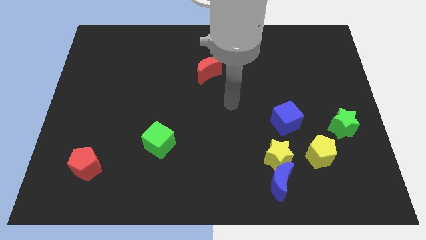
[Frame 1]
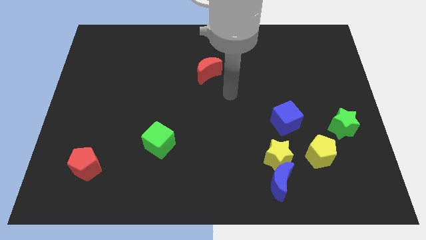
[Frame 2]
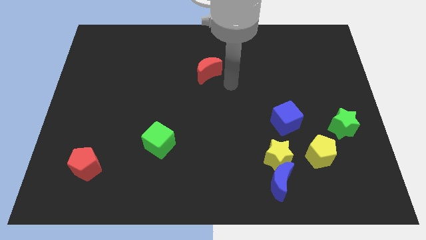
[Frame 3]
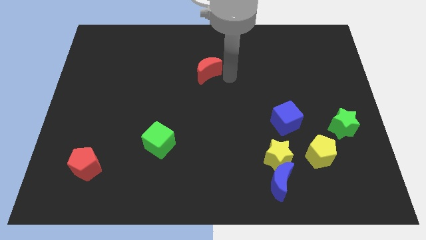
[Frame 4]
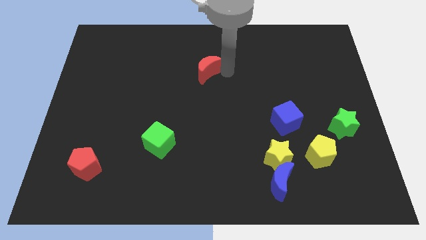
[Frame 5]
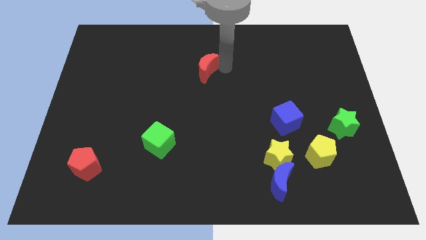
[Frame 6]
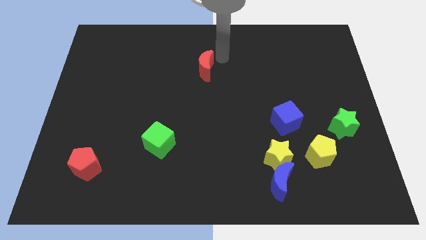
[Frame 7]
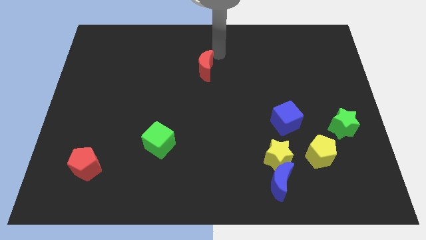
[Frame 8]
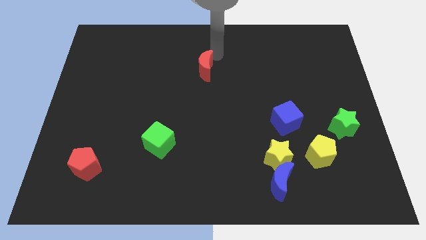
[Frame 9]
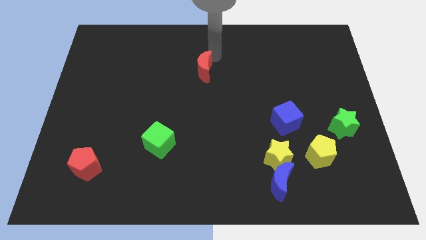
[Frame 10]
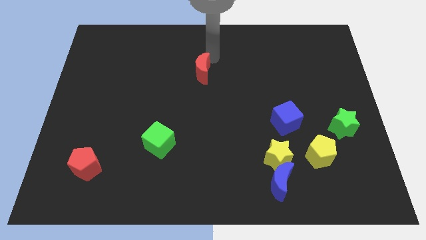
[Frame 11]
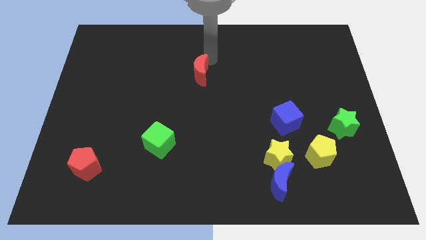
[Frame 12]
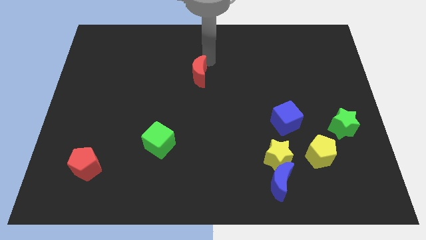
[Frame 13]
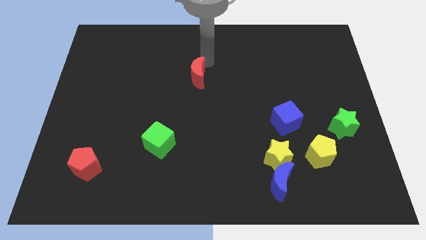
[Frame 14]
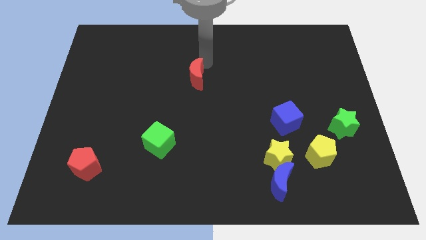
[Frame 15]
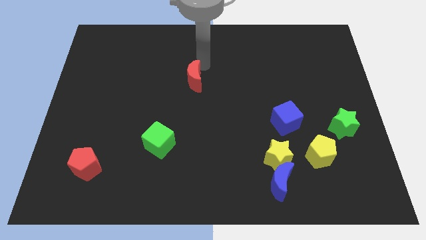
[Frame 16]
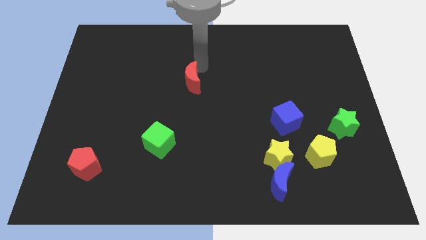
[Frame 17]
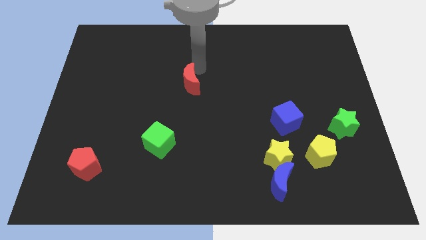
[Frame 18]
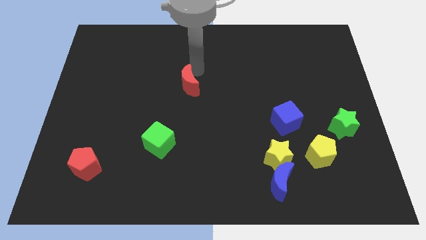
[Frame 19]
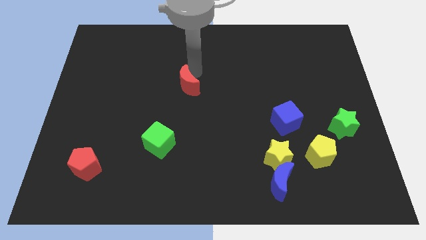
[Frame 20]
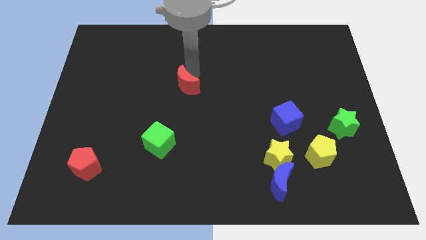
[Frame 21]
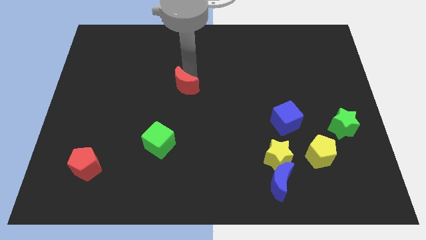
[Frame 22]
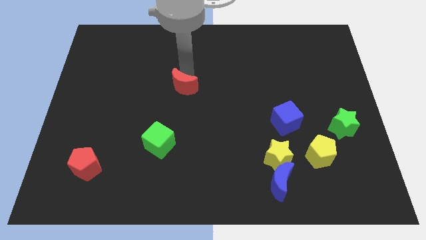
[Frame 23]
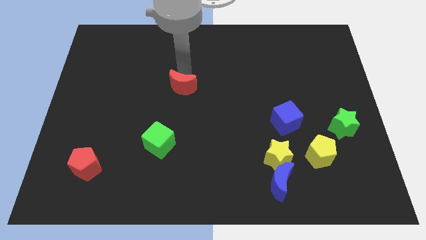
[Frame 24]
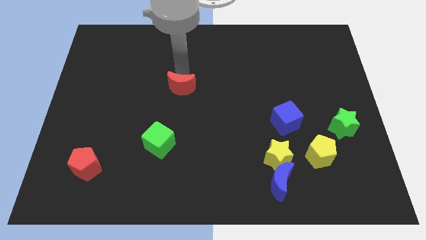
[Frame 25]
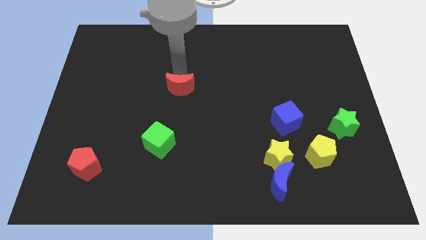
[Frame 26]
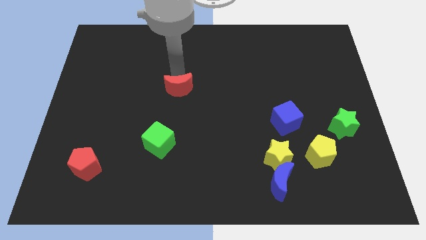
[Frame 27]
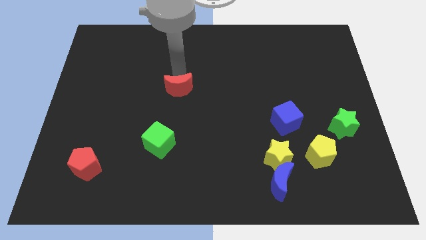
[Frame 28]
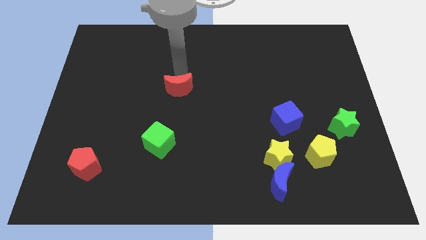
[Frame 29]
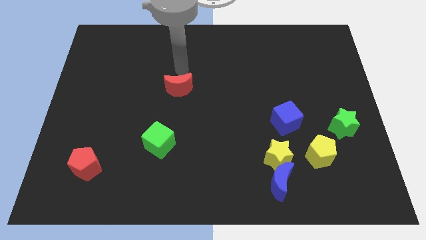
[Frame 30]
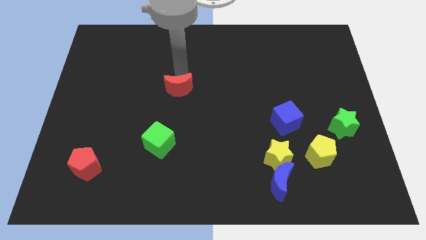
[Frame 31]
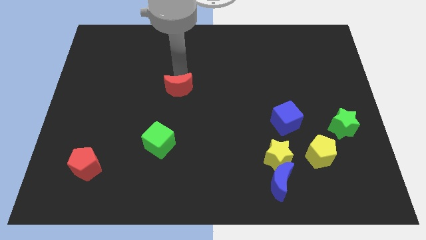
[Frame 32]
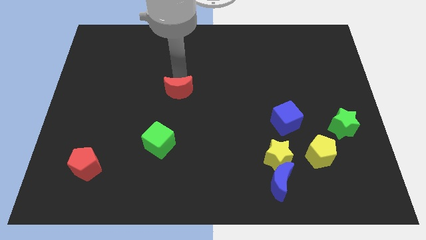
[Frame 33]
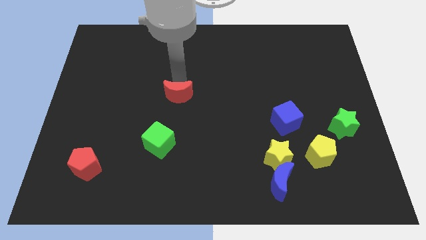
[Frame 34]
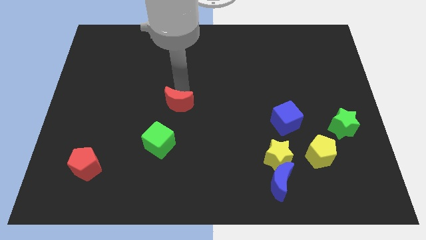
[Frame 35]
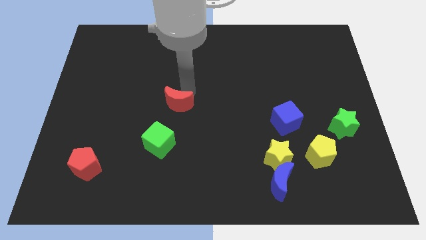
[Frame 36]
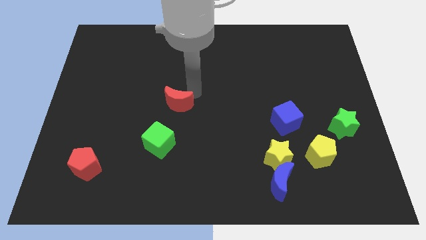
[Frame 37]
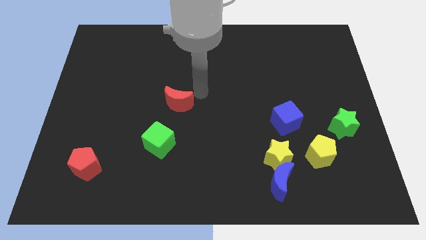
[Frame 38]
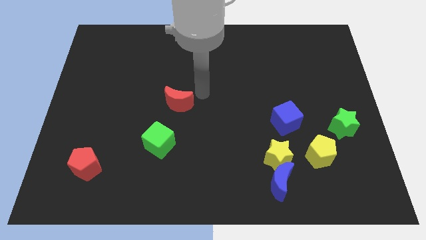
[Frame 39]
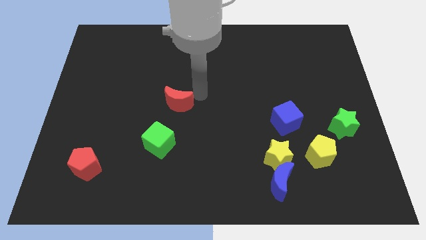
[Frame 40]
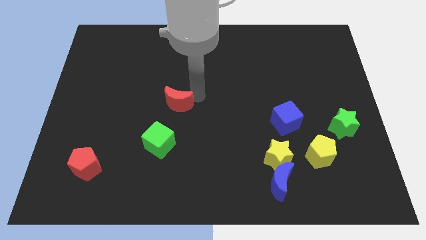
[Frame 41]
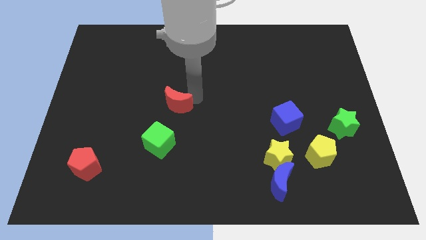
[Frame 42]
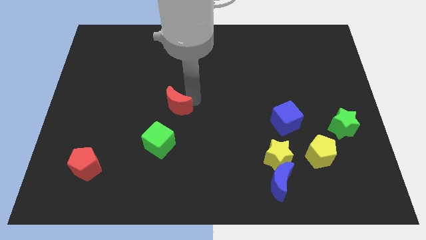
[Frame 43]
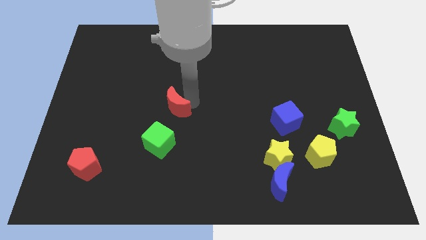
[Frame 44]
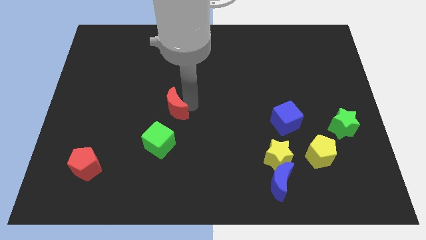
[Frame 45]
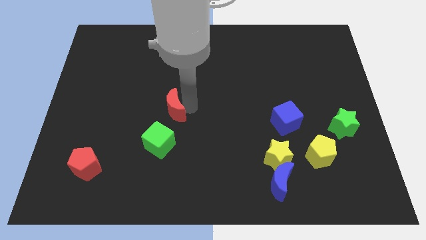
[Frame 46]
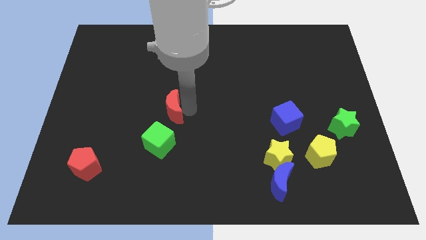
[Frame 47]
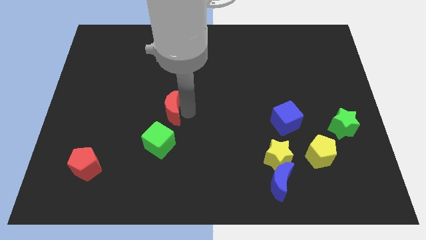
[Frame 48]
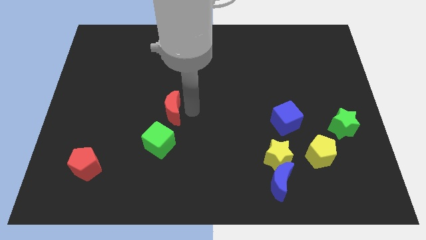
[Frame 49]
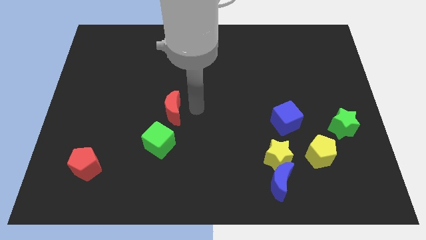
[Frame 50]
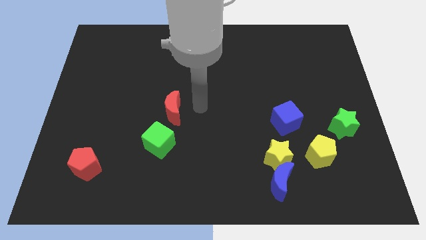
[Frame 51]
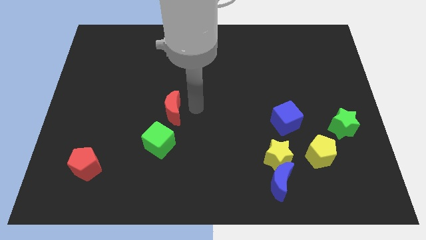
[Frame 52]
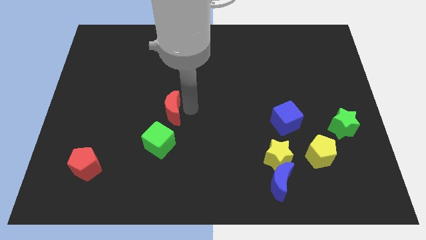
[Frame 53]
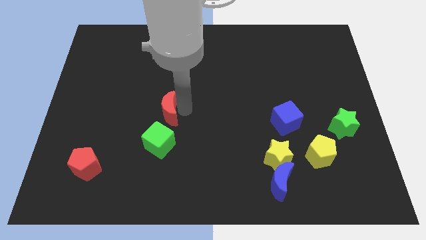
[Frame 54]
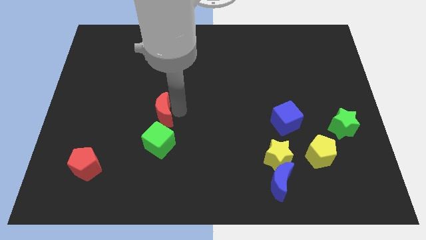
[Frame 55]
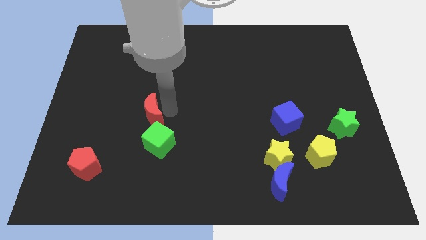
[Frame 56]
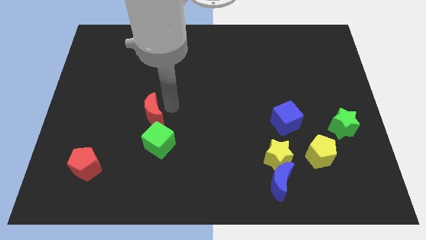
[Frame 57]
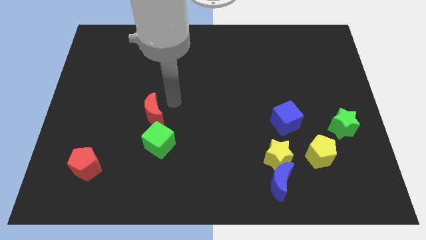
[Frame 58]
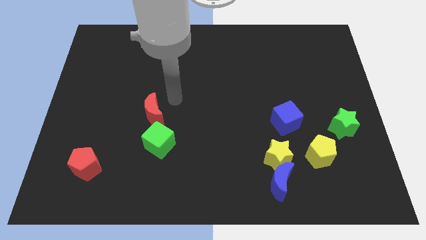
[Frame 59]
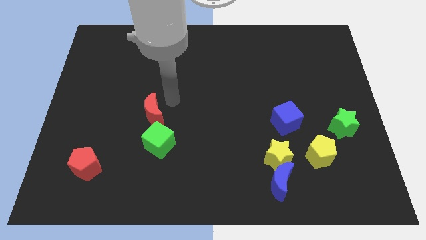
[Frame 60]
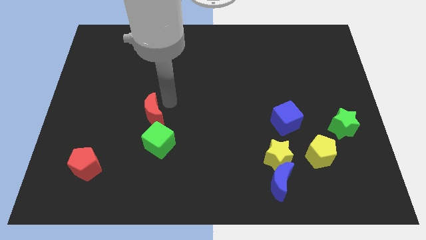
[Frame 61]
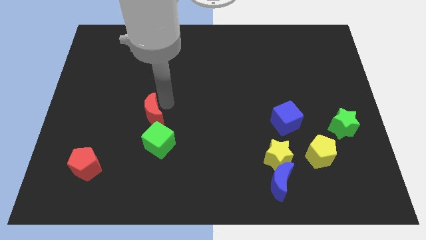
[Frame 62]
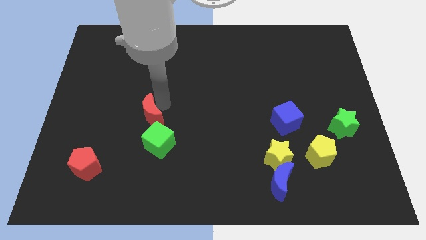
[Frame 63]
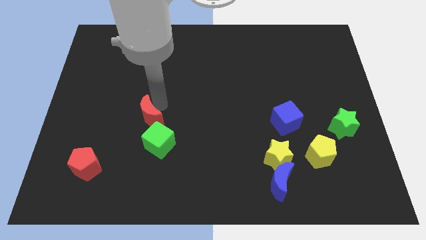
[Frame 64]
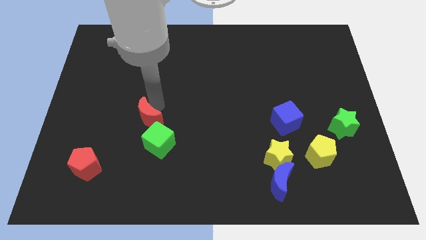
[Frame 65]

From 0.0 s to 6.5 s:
slide the red moon down and left diagonally

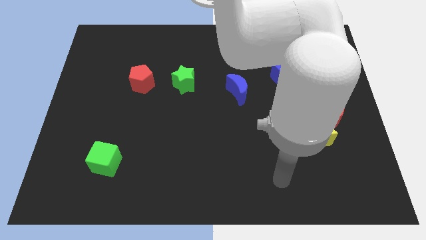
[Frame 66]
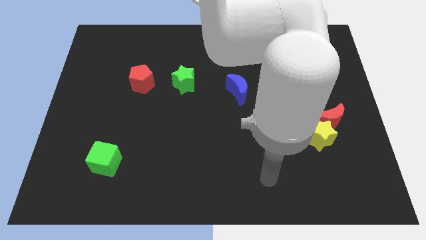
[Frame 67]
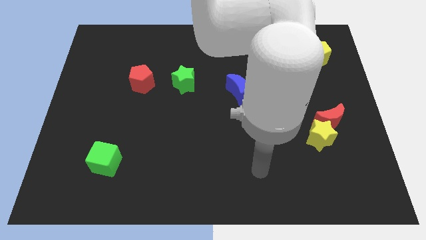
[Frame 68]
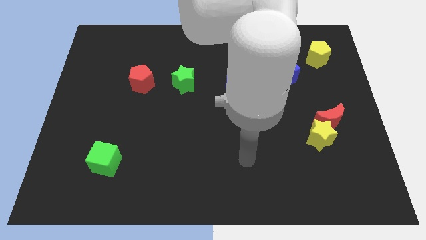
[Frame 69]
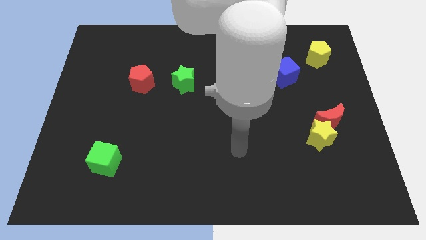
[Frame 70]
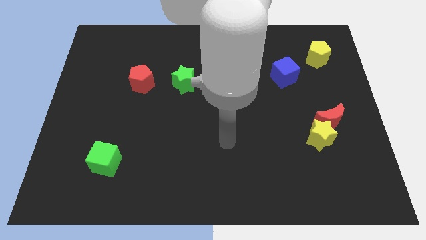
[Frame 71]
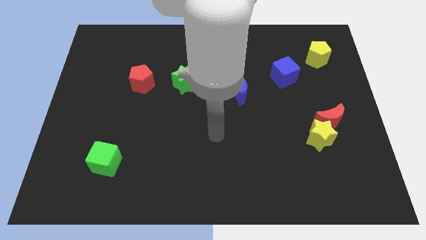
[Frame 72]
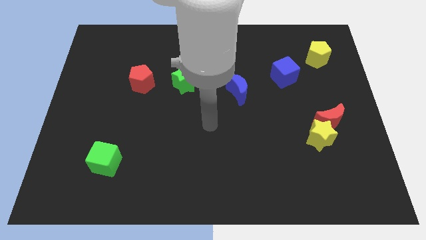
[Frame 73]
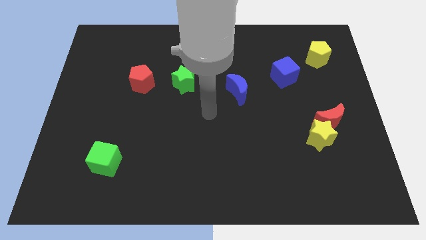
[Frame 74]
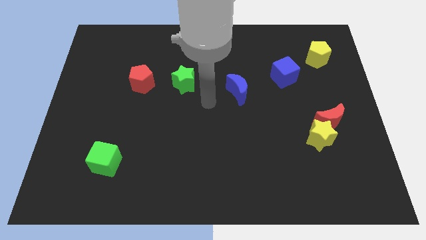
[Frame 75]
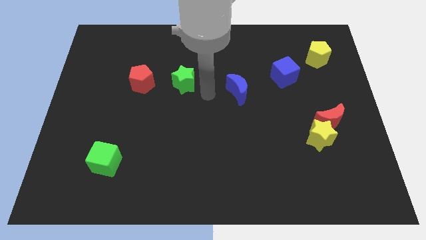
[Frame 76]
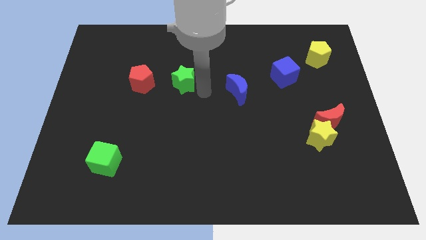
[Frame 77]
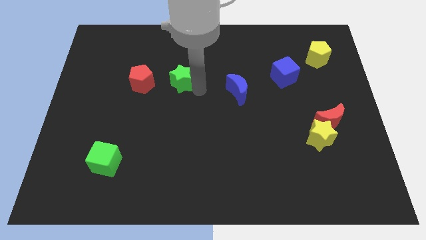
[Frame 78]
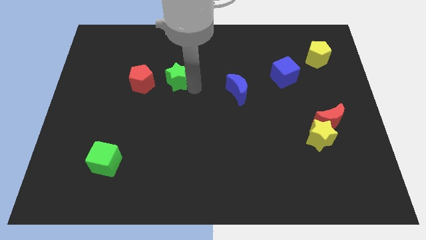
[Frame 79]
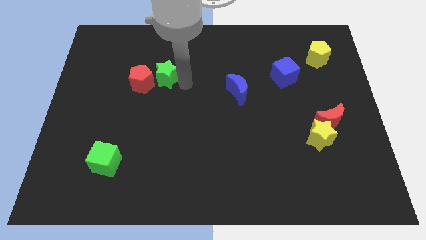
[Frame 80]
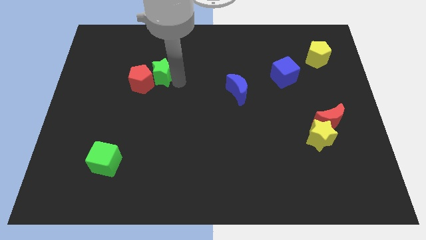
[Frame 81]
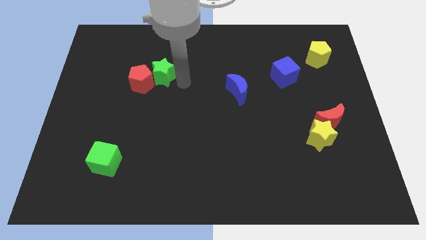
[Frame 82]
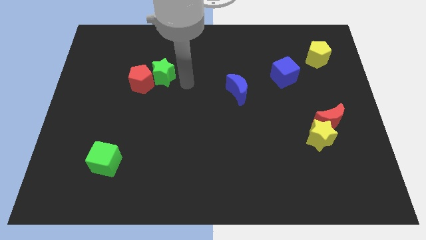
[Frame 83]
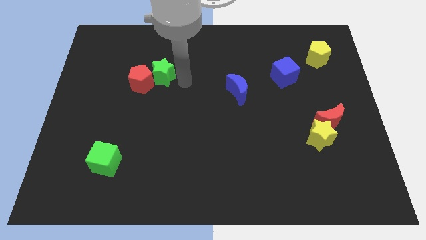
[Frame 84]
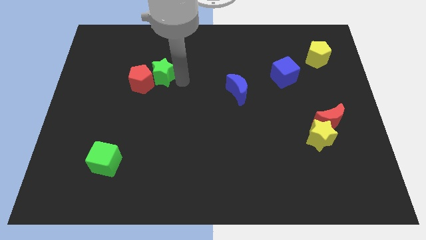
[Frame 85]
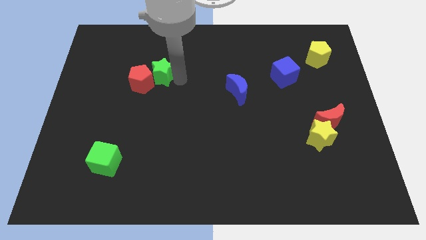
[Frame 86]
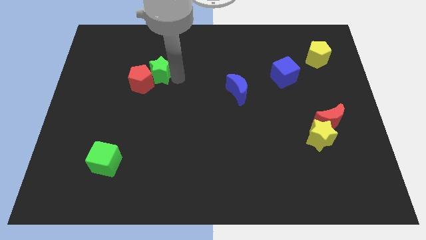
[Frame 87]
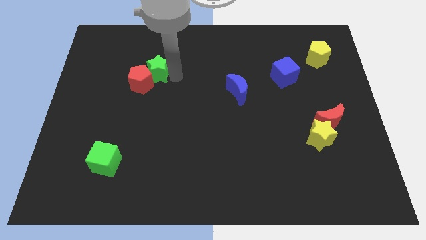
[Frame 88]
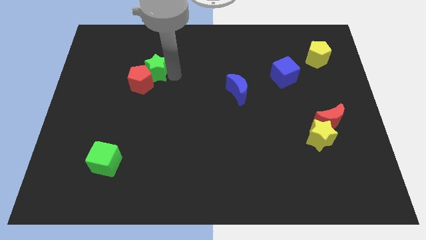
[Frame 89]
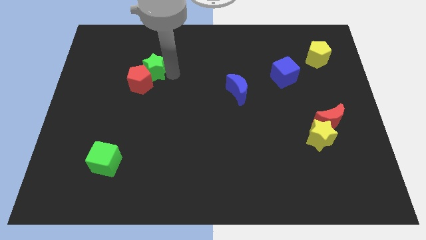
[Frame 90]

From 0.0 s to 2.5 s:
push the green star to the left a little
